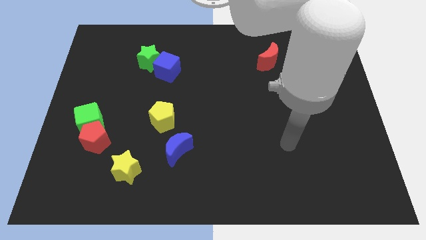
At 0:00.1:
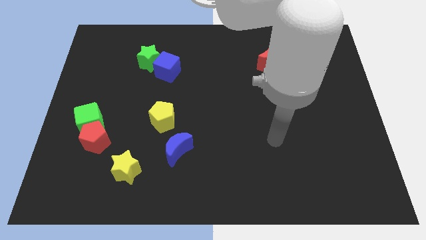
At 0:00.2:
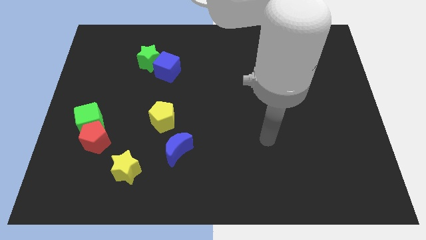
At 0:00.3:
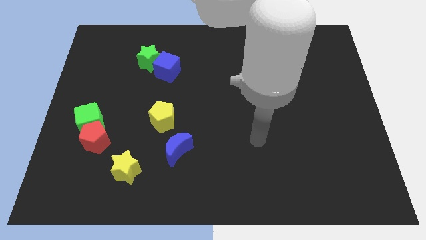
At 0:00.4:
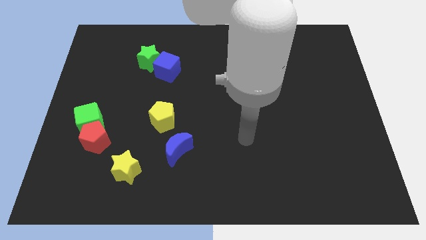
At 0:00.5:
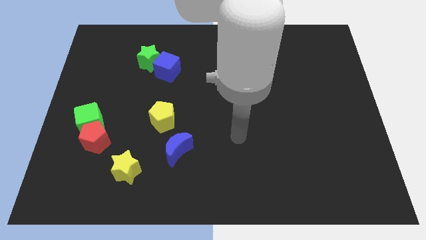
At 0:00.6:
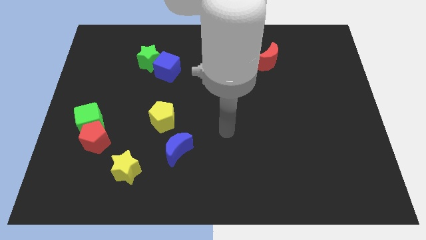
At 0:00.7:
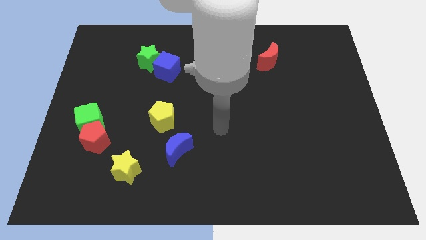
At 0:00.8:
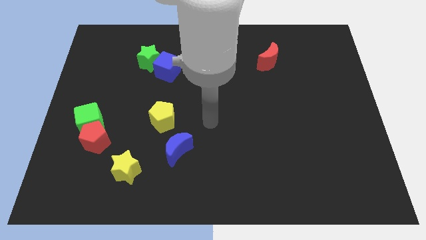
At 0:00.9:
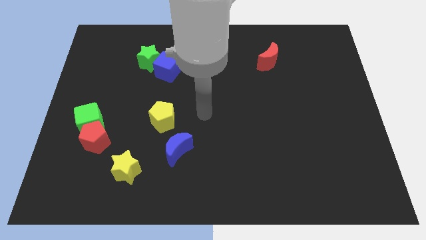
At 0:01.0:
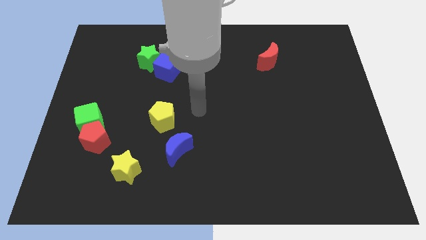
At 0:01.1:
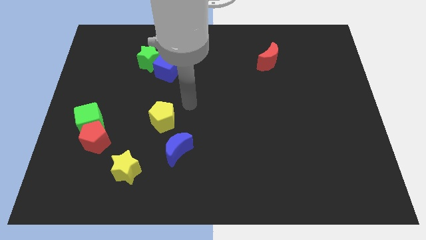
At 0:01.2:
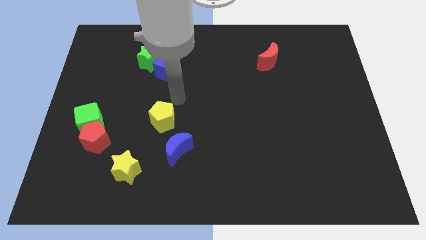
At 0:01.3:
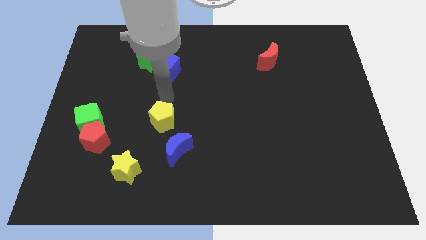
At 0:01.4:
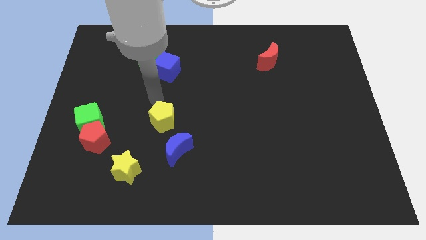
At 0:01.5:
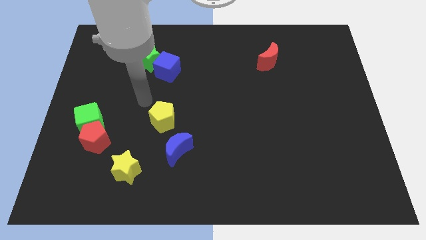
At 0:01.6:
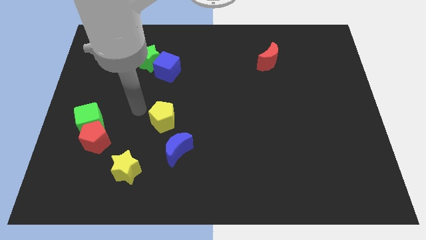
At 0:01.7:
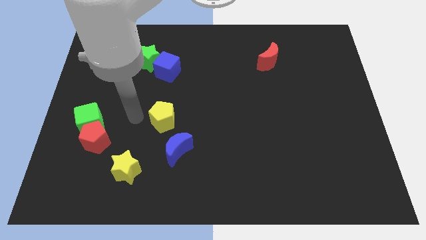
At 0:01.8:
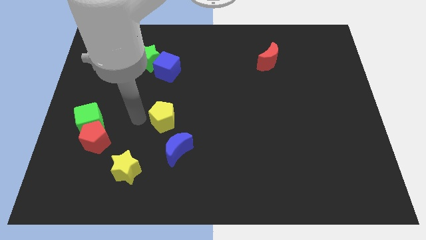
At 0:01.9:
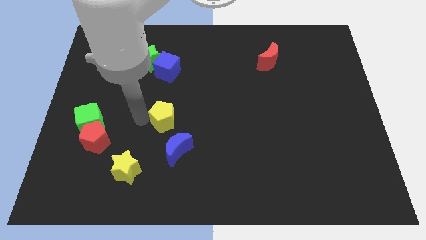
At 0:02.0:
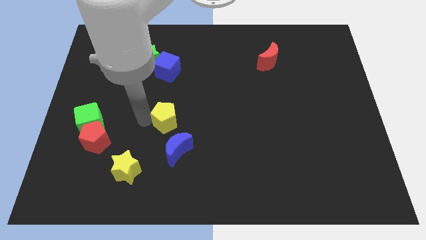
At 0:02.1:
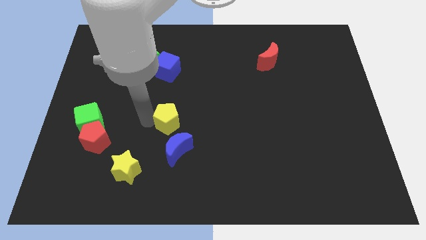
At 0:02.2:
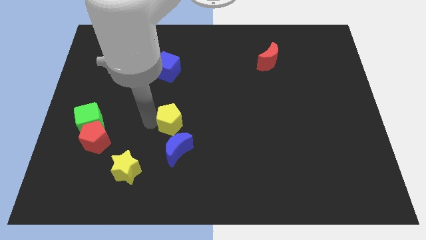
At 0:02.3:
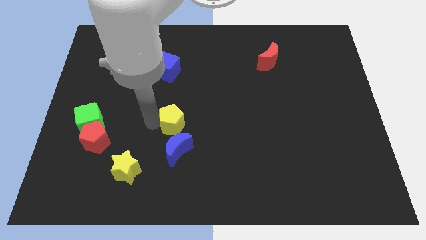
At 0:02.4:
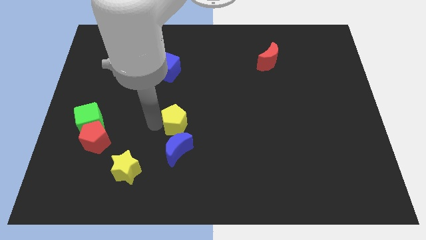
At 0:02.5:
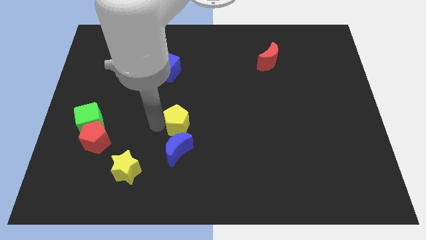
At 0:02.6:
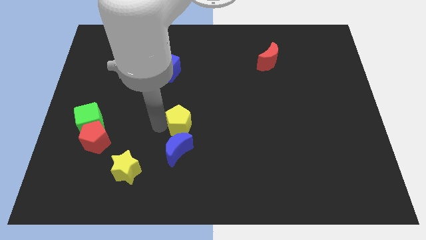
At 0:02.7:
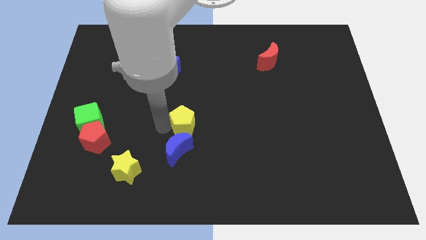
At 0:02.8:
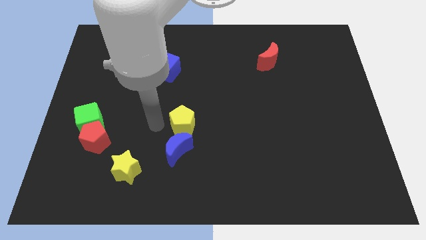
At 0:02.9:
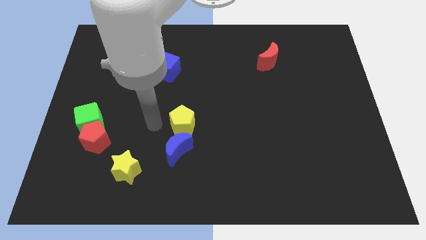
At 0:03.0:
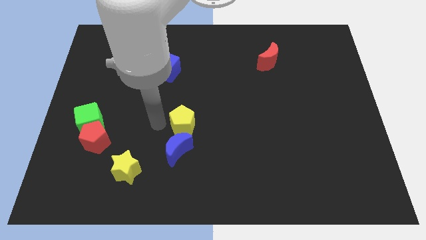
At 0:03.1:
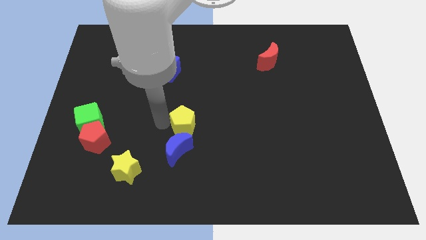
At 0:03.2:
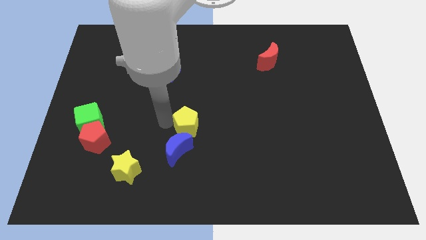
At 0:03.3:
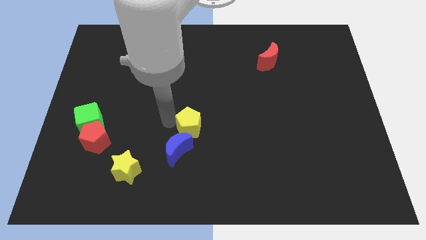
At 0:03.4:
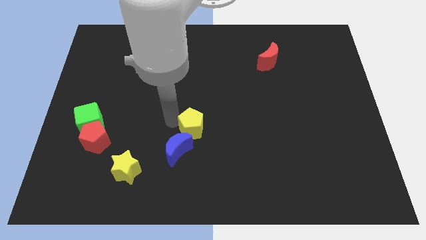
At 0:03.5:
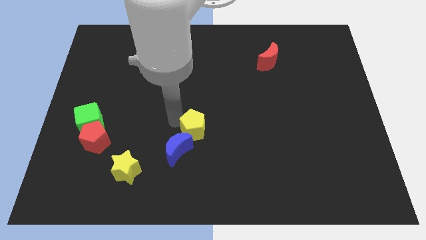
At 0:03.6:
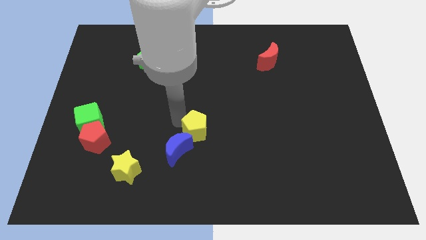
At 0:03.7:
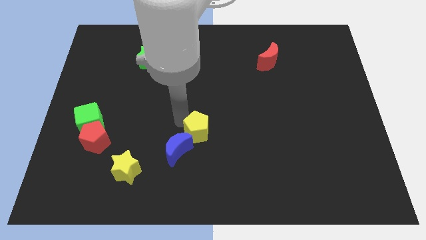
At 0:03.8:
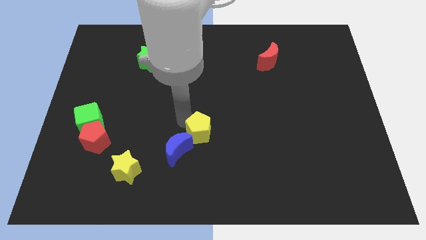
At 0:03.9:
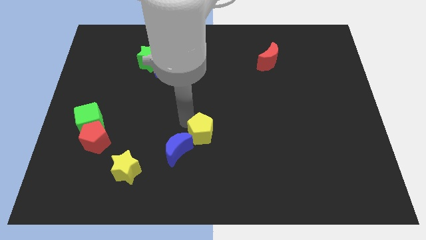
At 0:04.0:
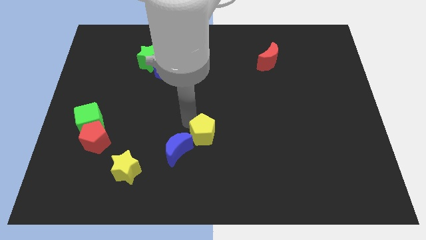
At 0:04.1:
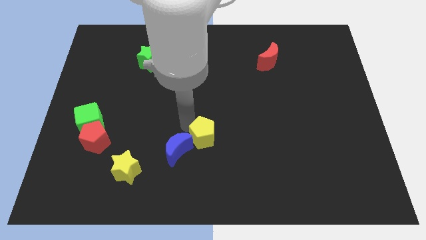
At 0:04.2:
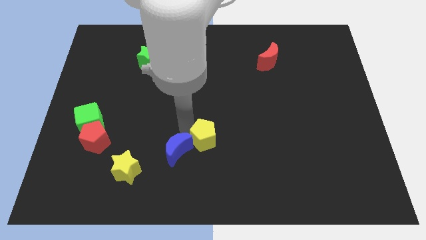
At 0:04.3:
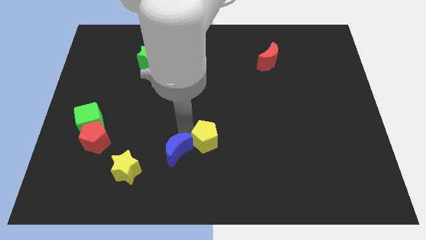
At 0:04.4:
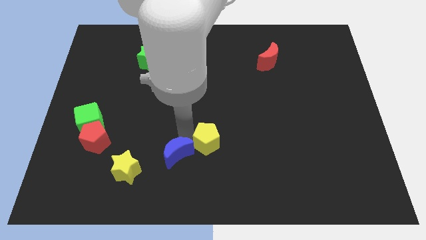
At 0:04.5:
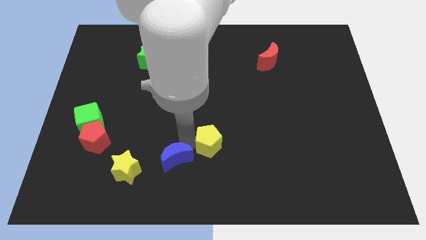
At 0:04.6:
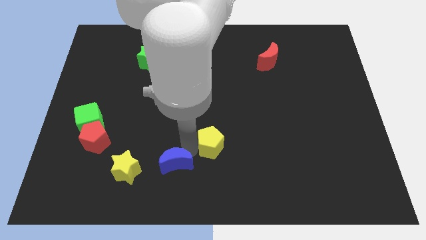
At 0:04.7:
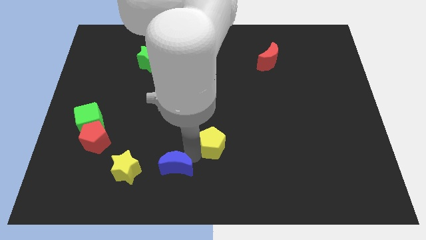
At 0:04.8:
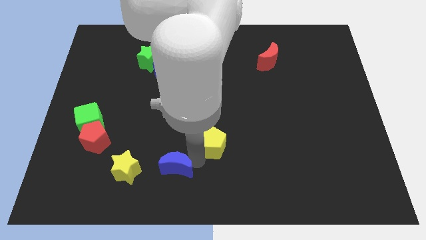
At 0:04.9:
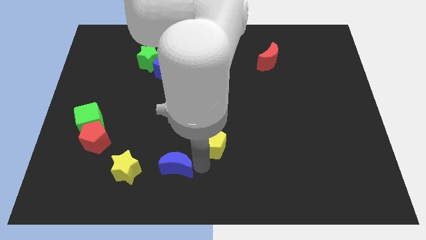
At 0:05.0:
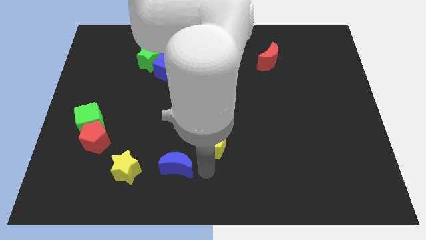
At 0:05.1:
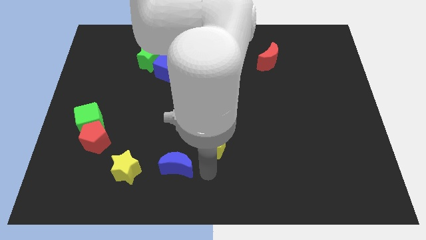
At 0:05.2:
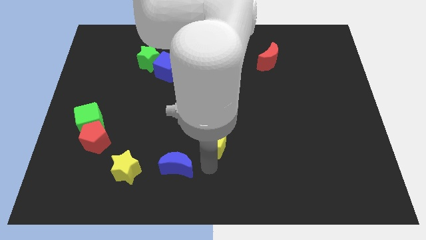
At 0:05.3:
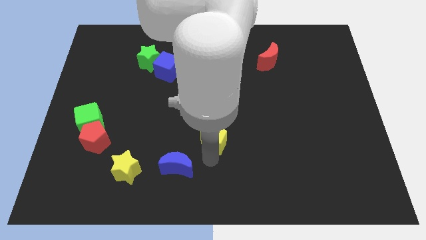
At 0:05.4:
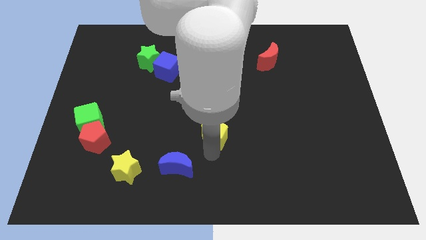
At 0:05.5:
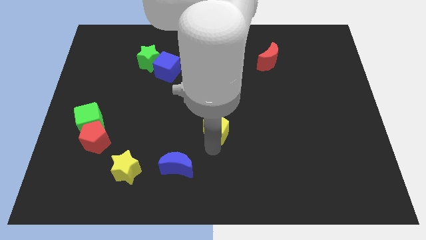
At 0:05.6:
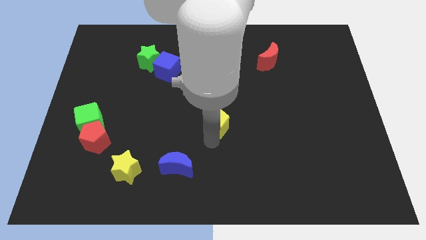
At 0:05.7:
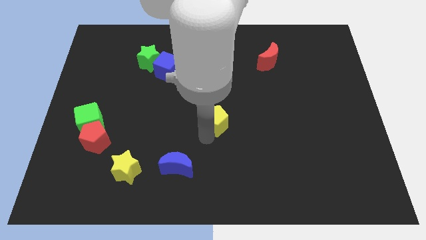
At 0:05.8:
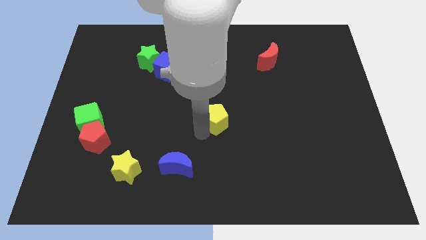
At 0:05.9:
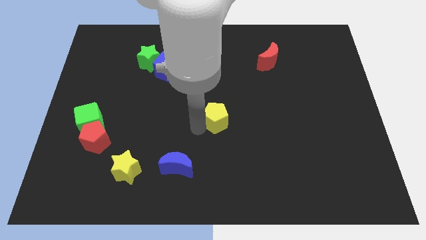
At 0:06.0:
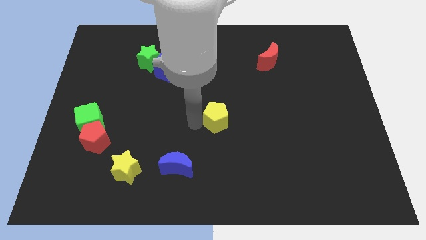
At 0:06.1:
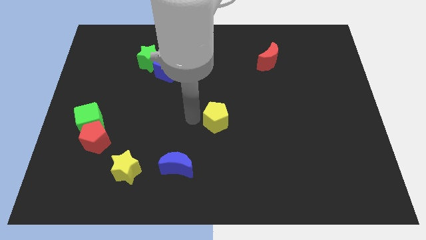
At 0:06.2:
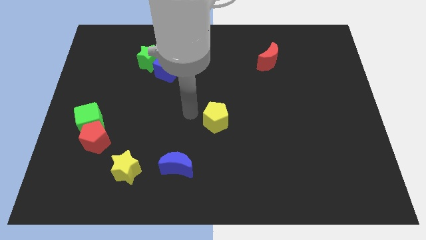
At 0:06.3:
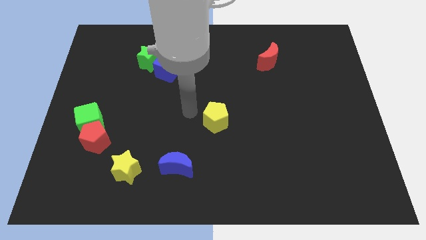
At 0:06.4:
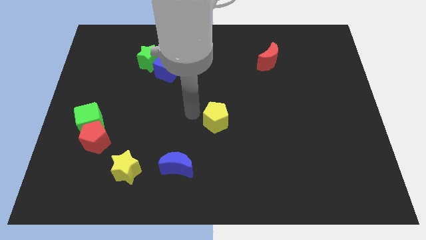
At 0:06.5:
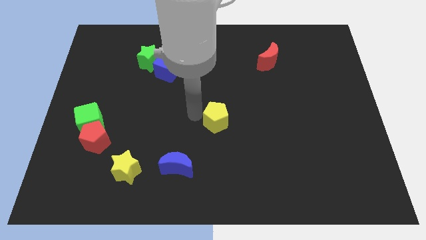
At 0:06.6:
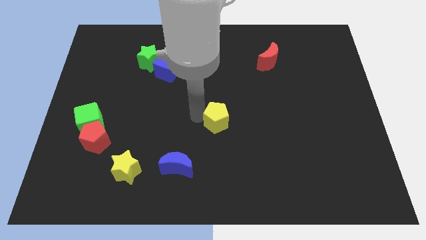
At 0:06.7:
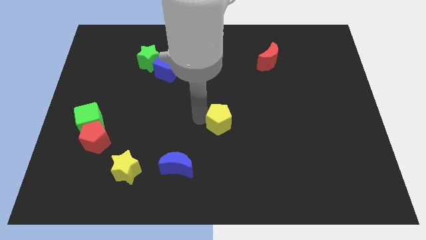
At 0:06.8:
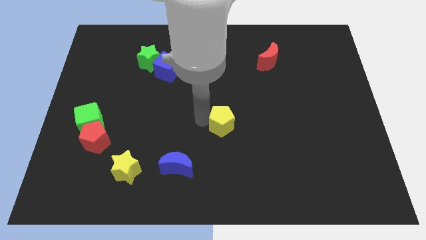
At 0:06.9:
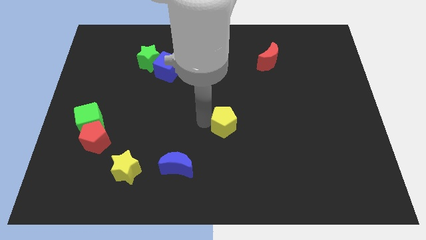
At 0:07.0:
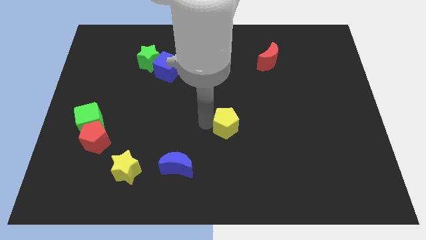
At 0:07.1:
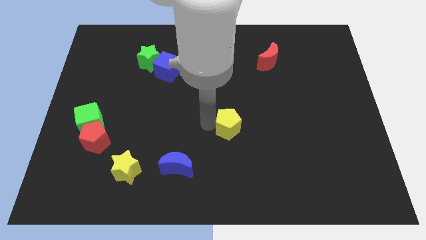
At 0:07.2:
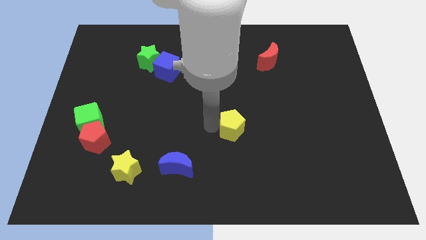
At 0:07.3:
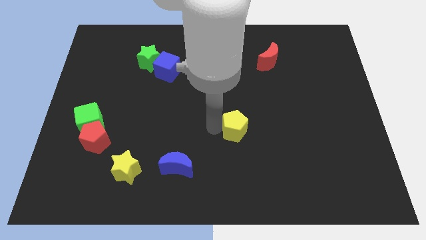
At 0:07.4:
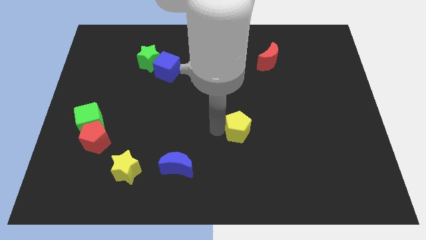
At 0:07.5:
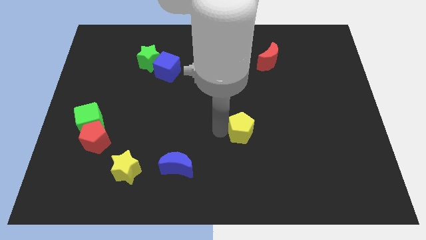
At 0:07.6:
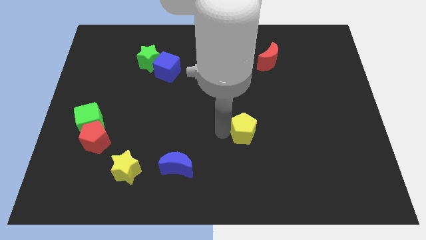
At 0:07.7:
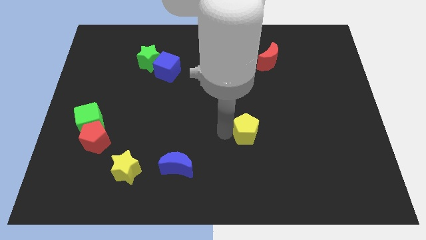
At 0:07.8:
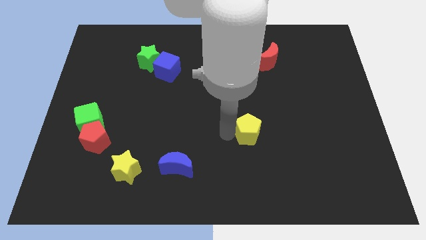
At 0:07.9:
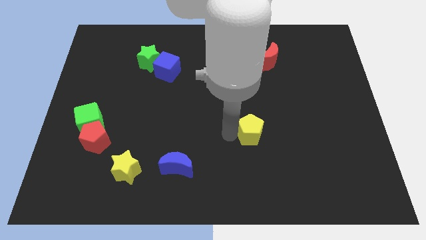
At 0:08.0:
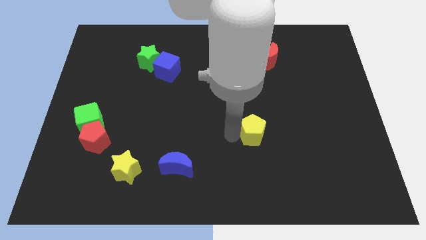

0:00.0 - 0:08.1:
push the yellow pentagon to the right
